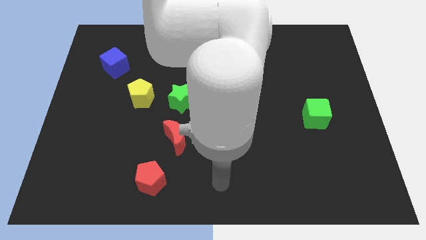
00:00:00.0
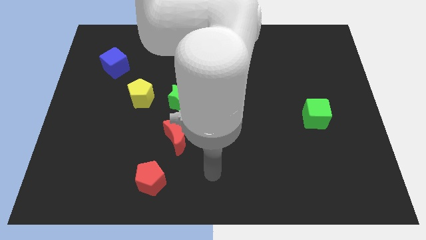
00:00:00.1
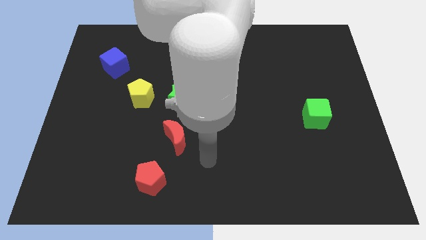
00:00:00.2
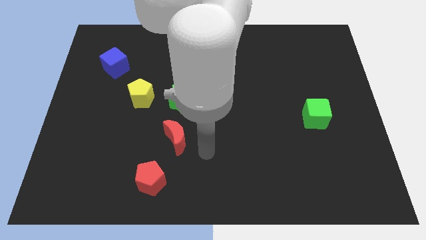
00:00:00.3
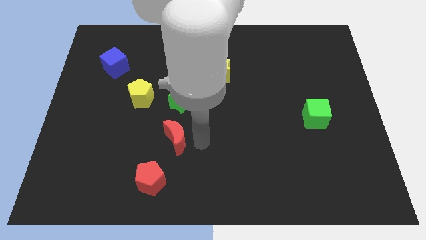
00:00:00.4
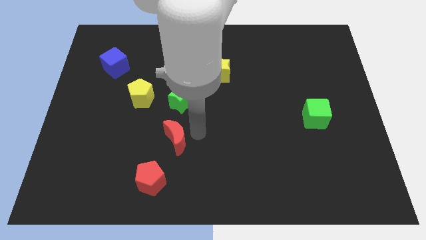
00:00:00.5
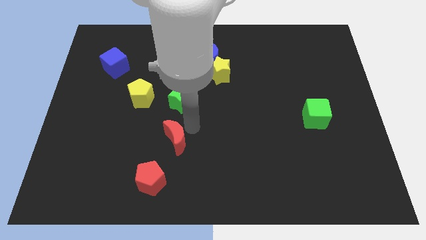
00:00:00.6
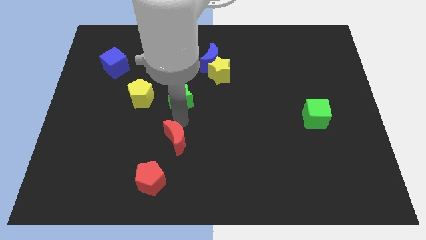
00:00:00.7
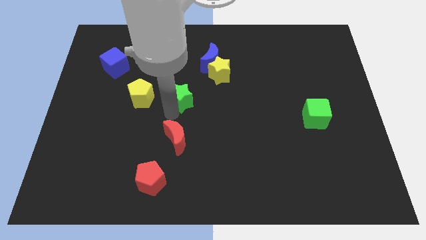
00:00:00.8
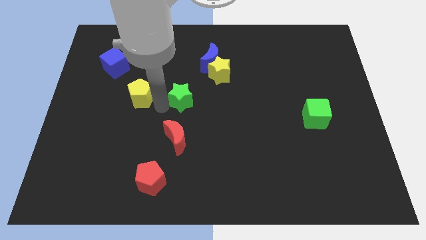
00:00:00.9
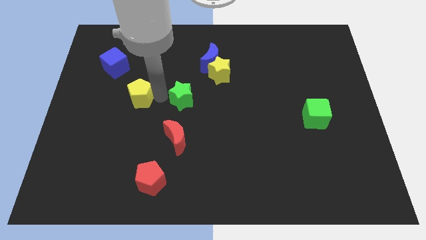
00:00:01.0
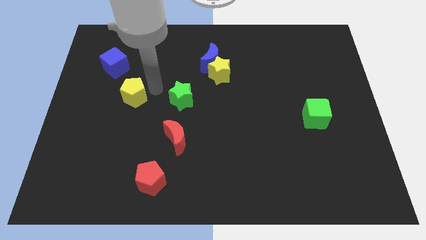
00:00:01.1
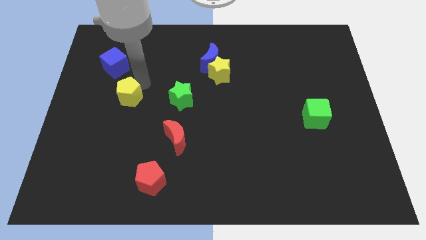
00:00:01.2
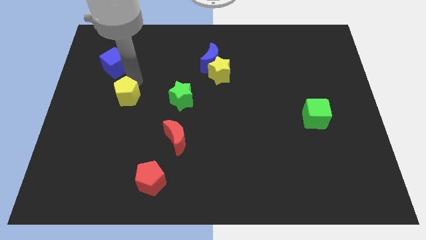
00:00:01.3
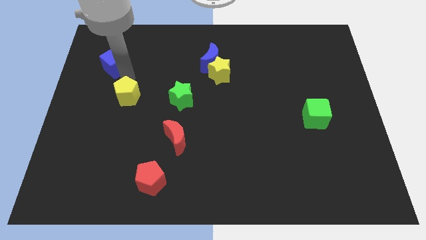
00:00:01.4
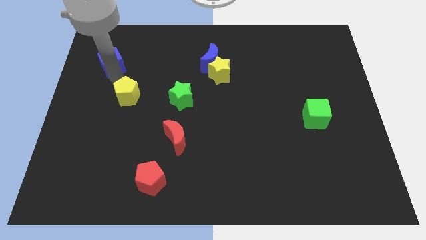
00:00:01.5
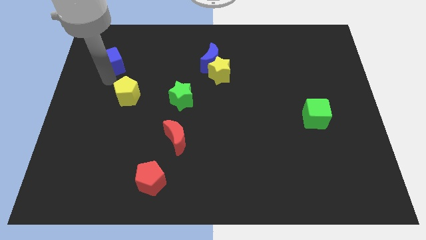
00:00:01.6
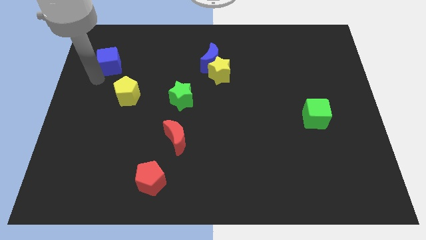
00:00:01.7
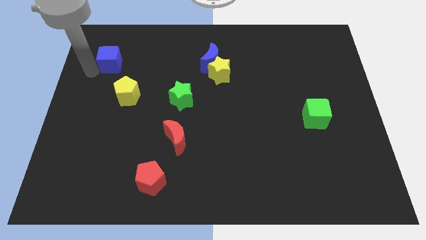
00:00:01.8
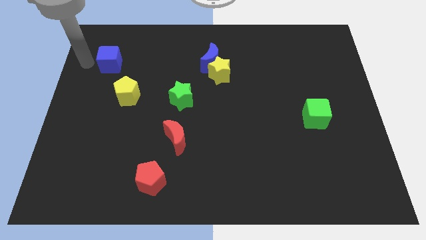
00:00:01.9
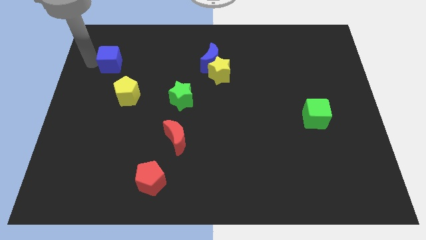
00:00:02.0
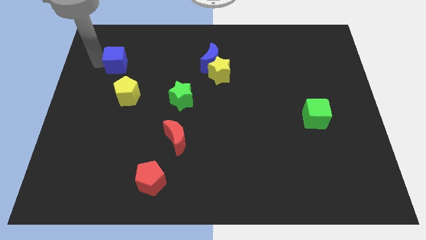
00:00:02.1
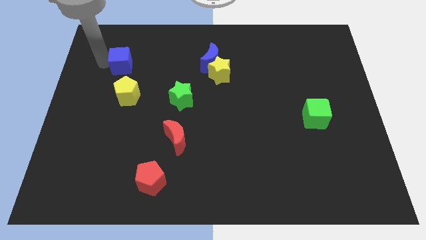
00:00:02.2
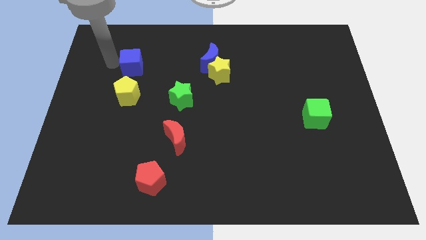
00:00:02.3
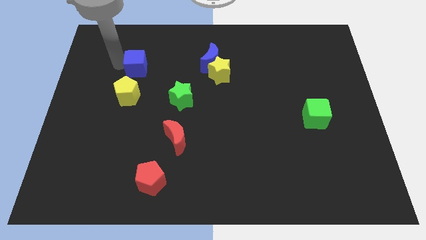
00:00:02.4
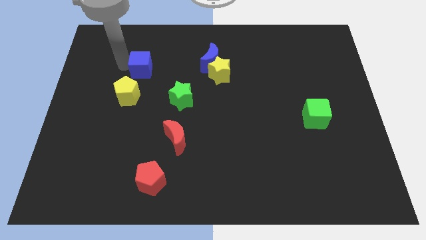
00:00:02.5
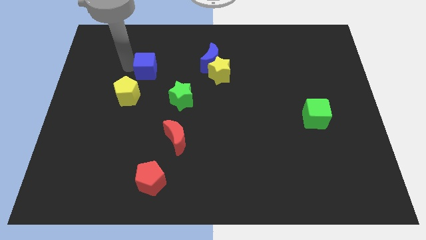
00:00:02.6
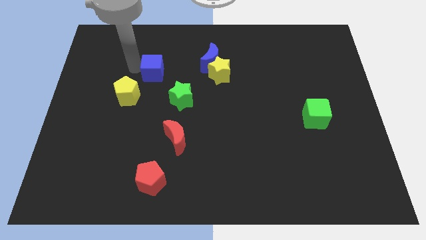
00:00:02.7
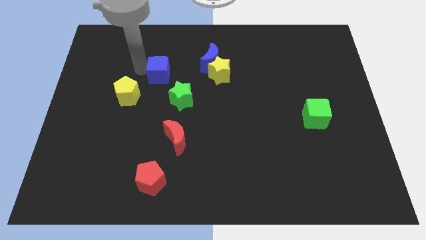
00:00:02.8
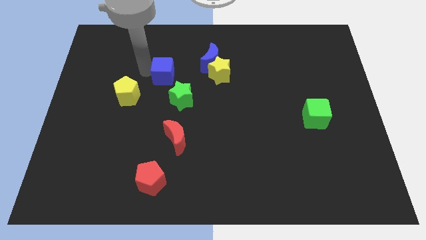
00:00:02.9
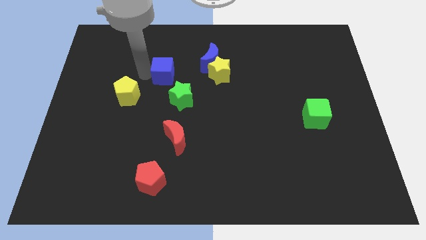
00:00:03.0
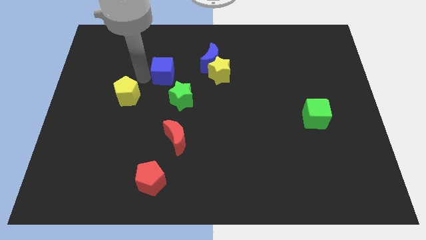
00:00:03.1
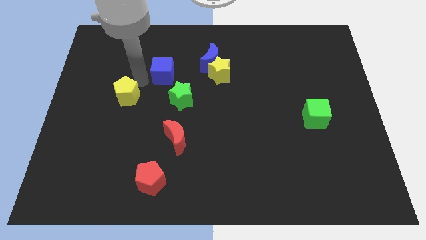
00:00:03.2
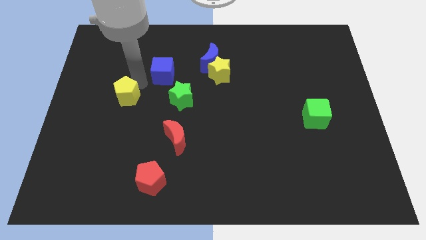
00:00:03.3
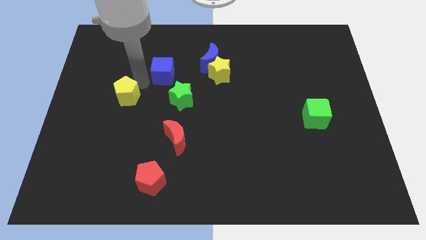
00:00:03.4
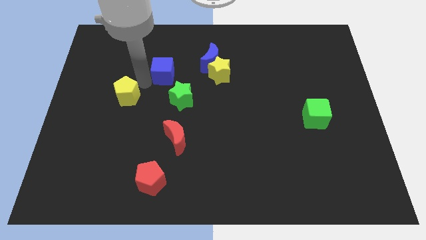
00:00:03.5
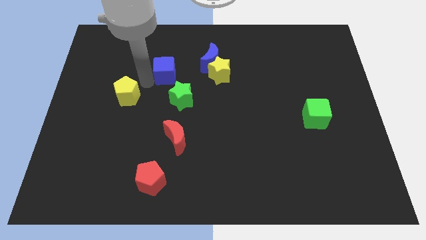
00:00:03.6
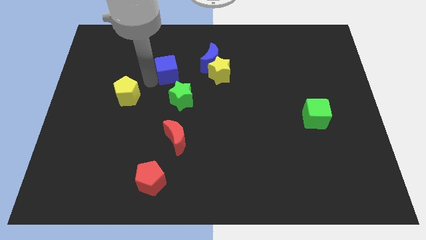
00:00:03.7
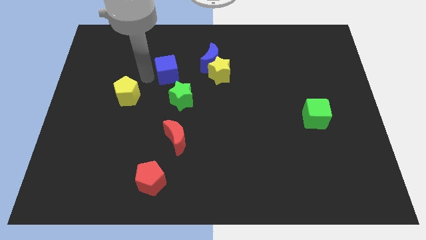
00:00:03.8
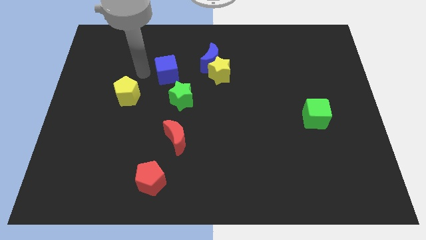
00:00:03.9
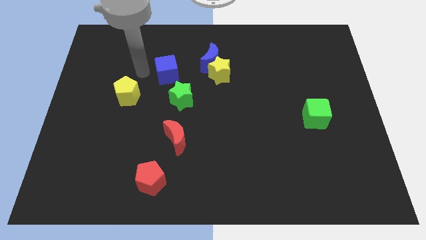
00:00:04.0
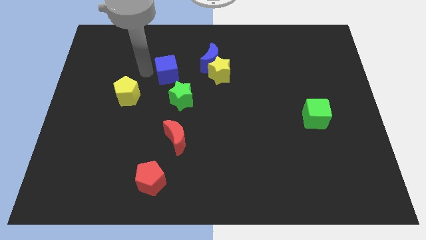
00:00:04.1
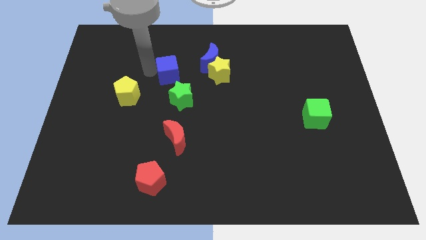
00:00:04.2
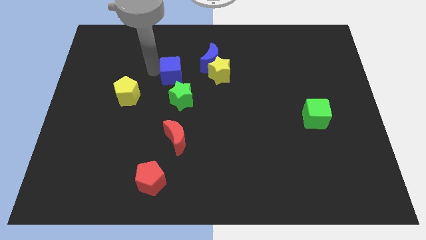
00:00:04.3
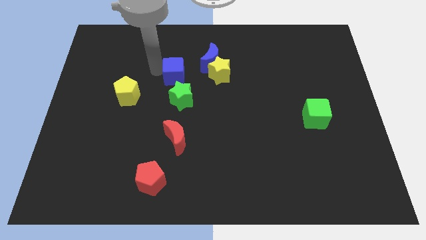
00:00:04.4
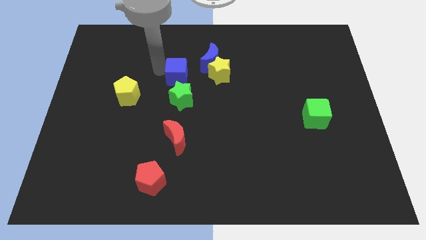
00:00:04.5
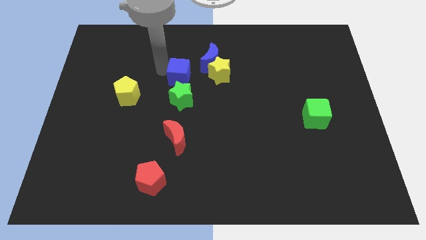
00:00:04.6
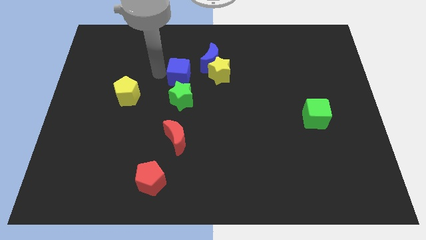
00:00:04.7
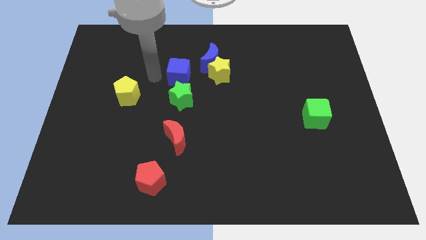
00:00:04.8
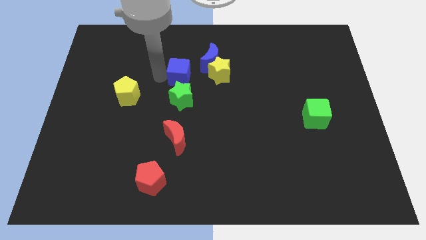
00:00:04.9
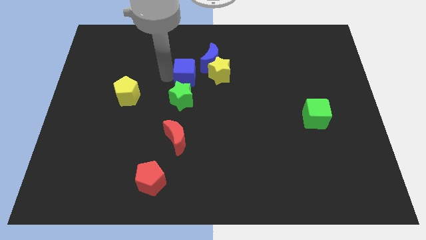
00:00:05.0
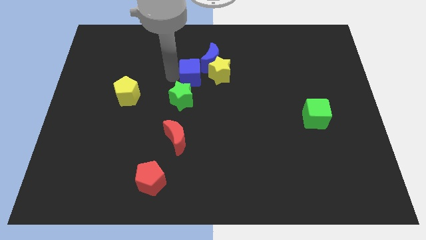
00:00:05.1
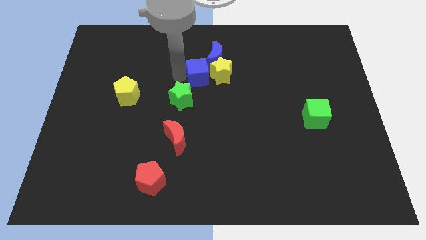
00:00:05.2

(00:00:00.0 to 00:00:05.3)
move the blue cube towards the yellow star

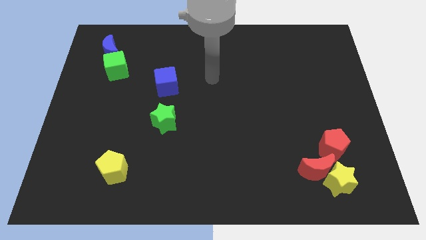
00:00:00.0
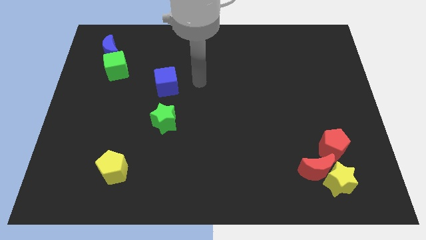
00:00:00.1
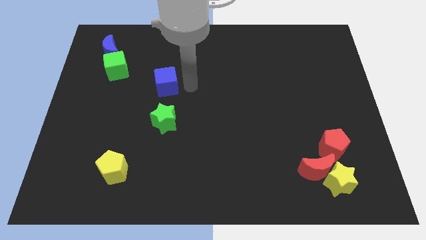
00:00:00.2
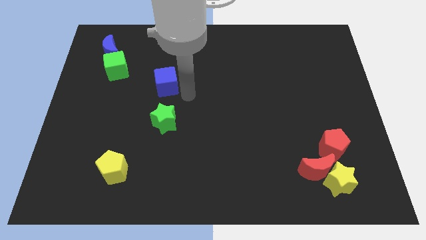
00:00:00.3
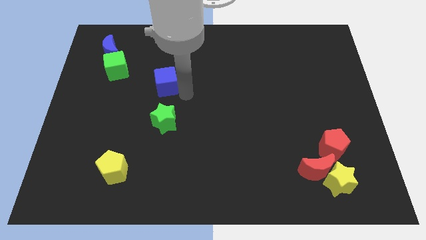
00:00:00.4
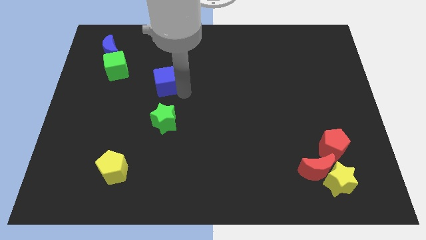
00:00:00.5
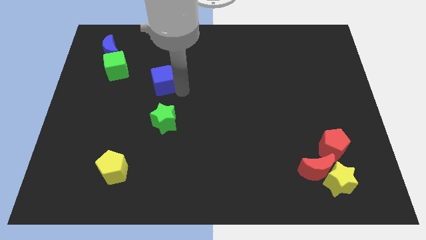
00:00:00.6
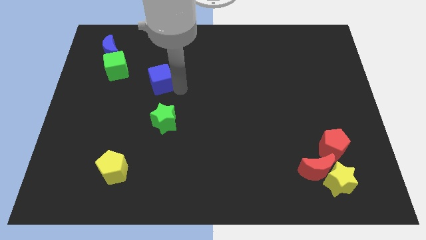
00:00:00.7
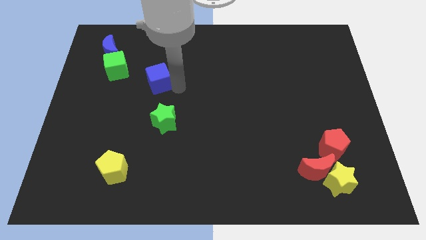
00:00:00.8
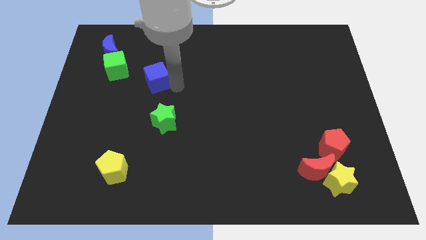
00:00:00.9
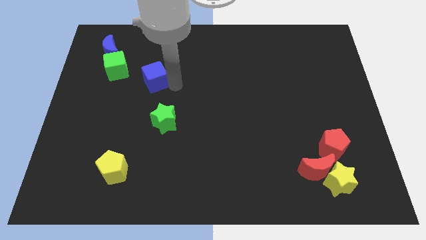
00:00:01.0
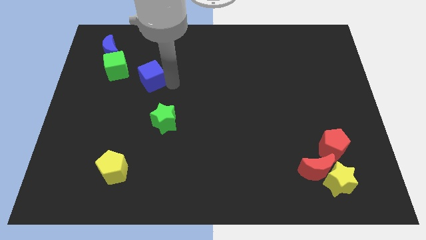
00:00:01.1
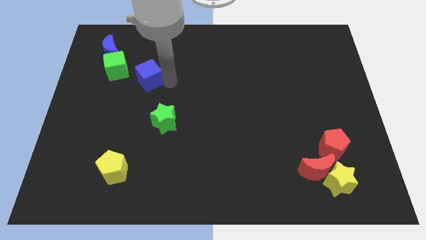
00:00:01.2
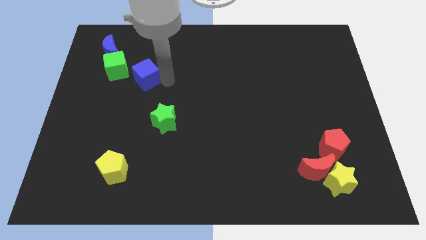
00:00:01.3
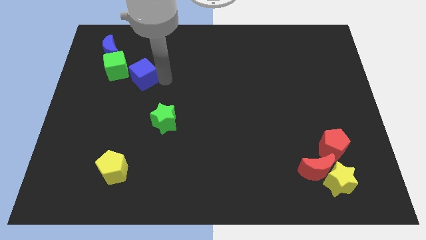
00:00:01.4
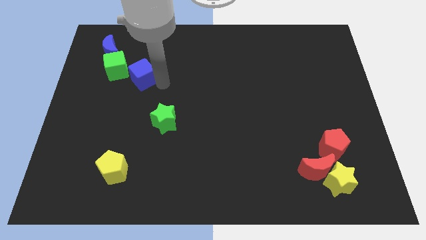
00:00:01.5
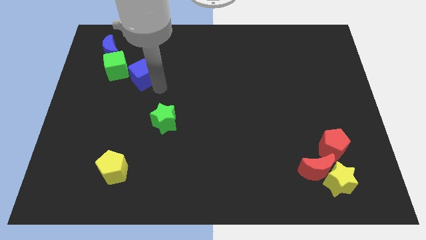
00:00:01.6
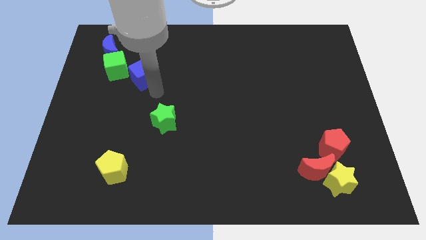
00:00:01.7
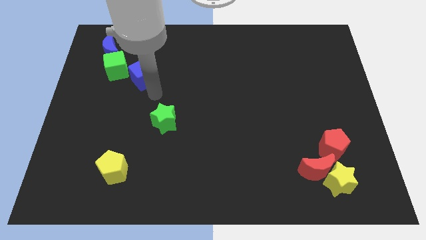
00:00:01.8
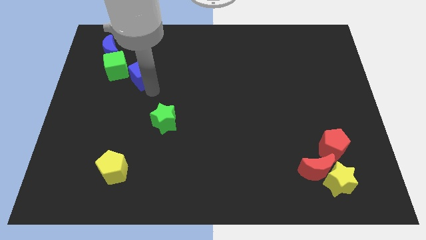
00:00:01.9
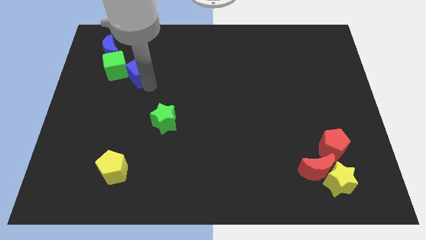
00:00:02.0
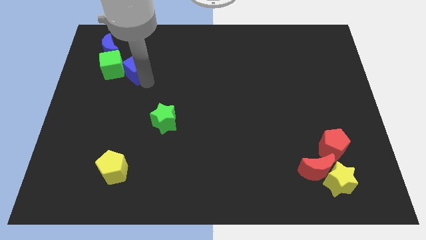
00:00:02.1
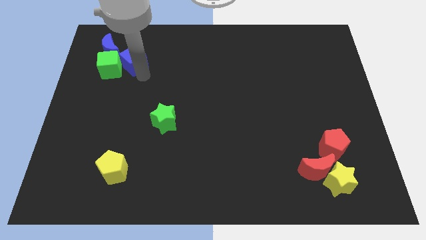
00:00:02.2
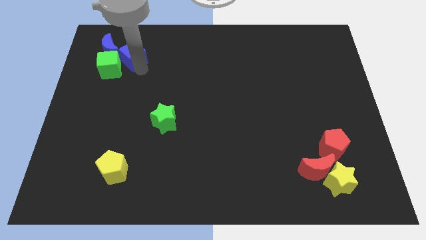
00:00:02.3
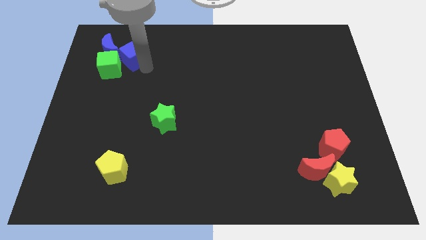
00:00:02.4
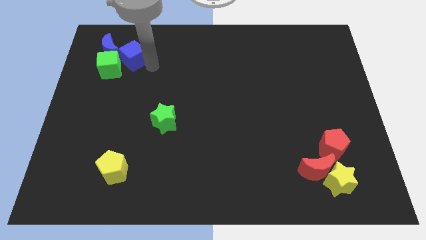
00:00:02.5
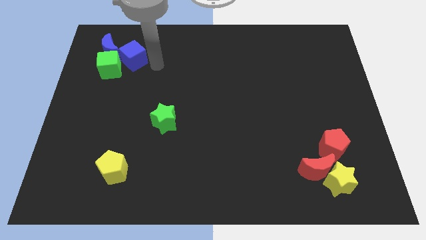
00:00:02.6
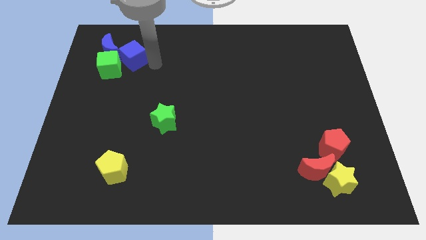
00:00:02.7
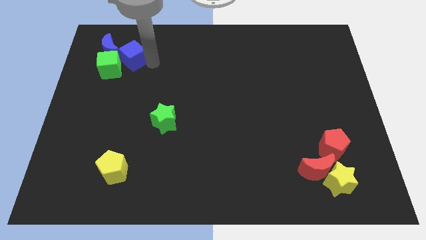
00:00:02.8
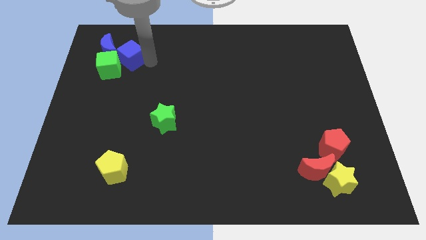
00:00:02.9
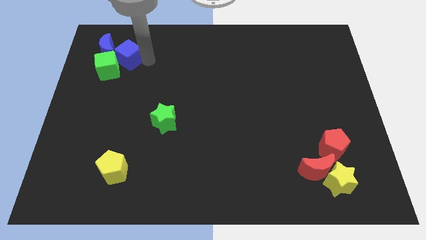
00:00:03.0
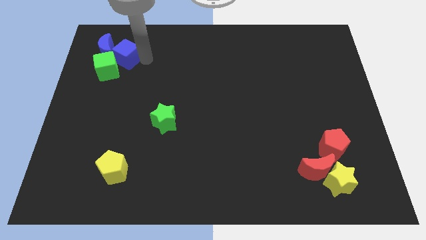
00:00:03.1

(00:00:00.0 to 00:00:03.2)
slide the blue cube towards the blue moon
